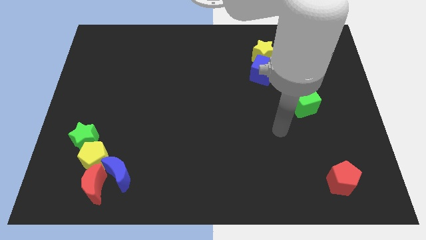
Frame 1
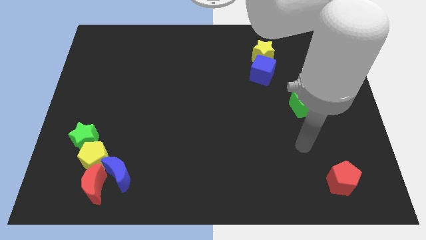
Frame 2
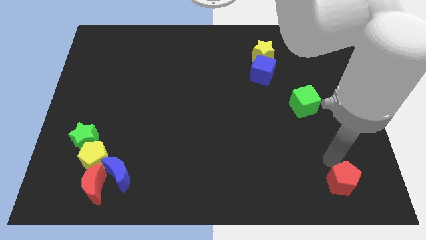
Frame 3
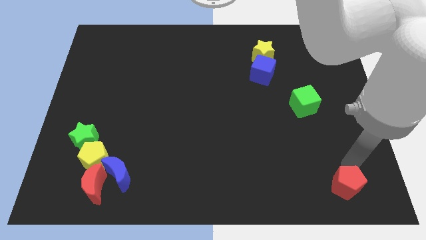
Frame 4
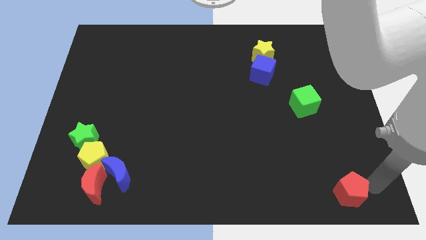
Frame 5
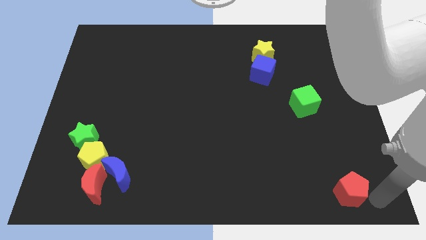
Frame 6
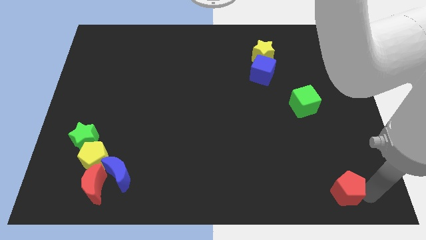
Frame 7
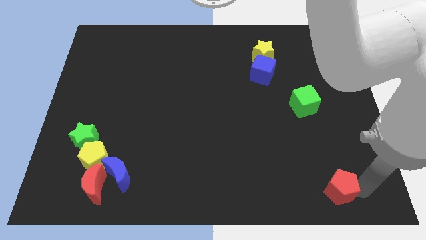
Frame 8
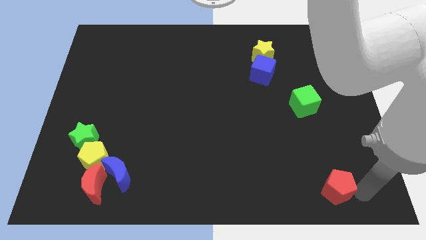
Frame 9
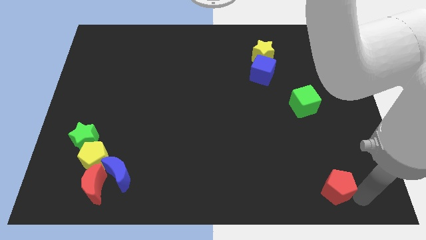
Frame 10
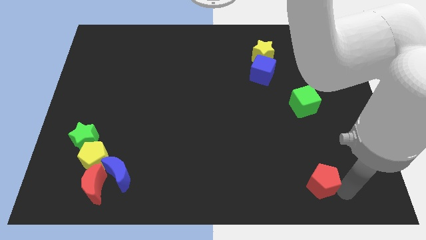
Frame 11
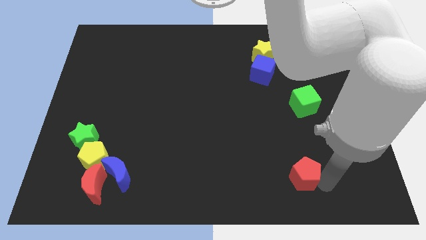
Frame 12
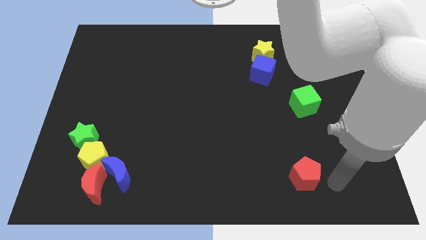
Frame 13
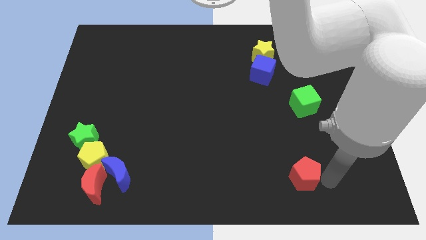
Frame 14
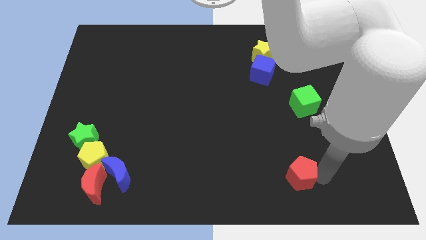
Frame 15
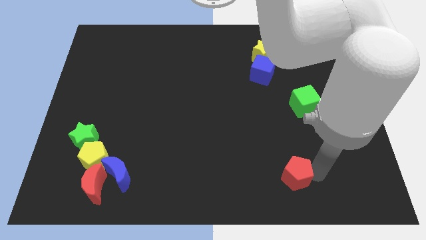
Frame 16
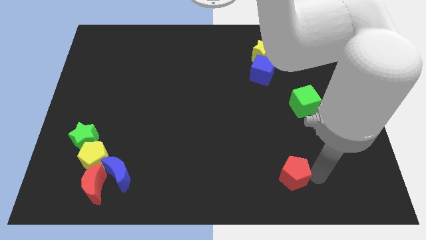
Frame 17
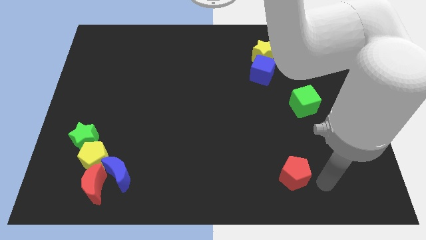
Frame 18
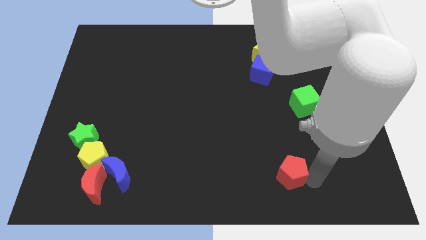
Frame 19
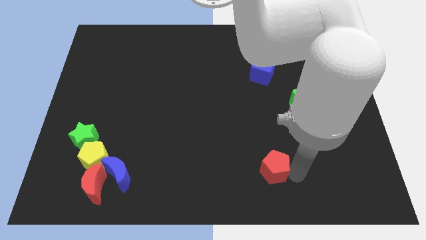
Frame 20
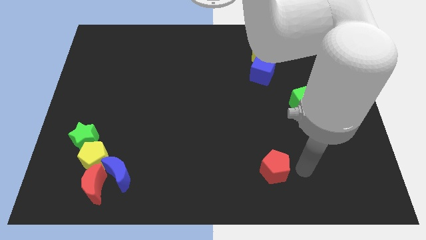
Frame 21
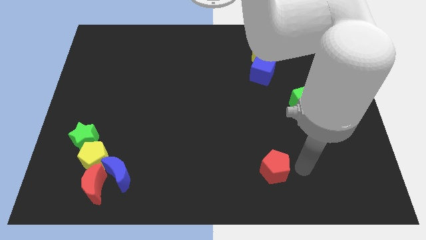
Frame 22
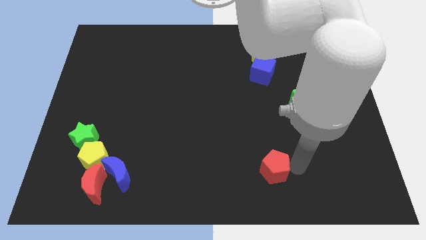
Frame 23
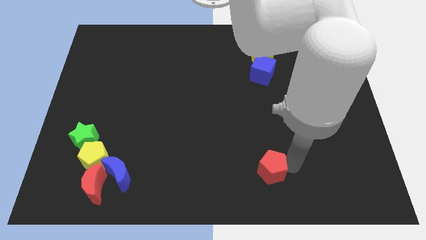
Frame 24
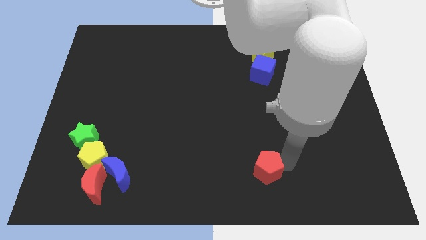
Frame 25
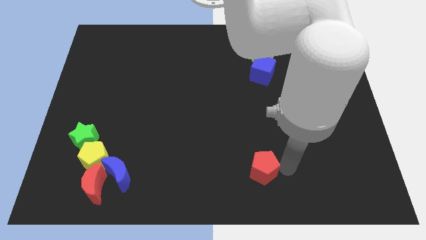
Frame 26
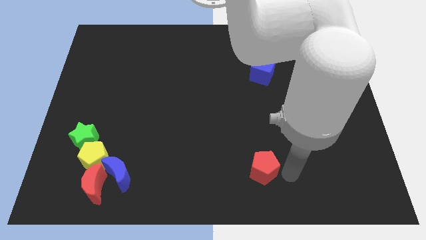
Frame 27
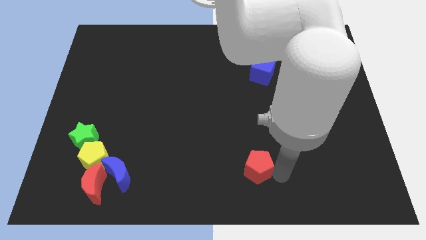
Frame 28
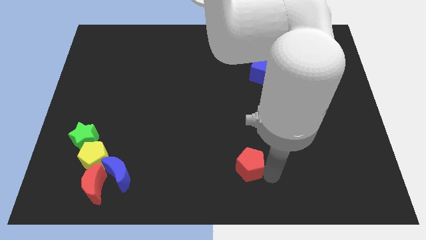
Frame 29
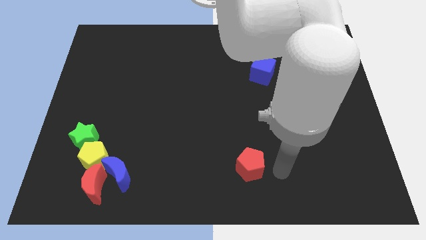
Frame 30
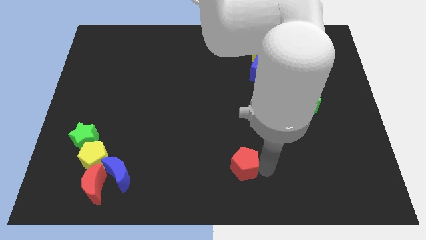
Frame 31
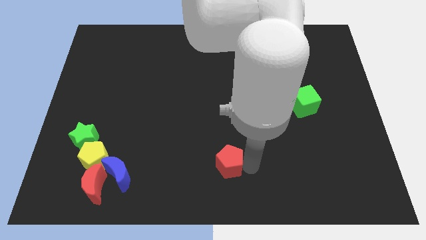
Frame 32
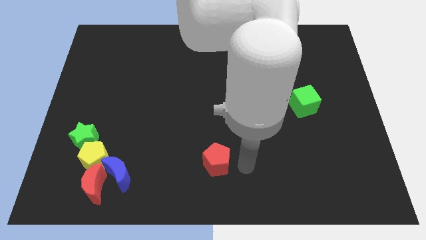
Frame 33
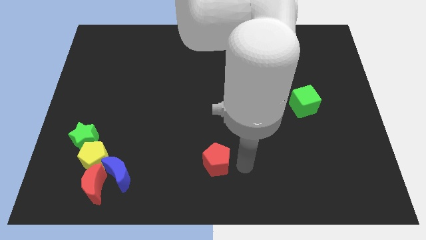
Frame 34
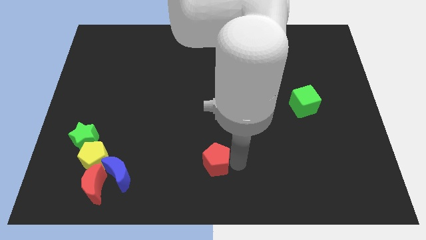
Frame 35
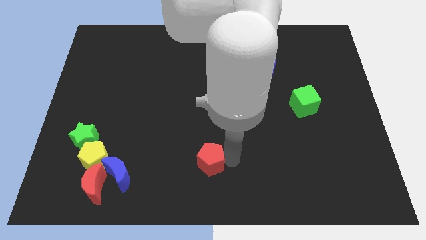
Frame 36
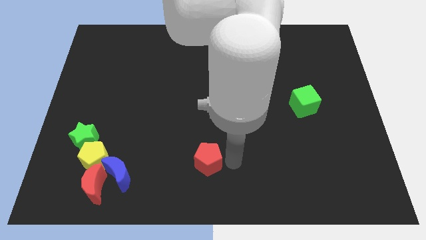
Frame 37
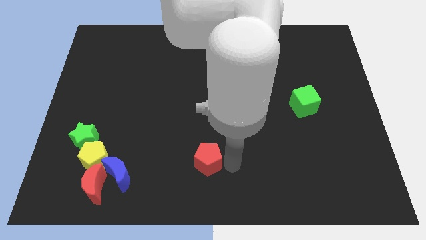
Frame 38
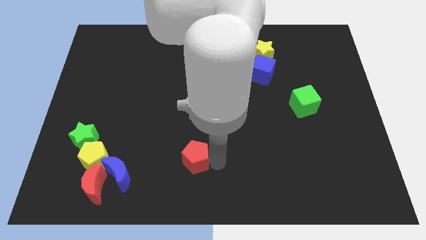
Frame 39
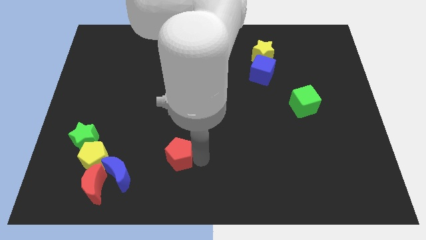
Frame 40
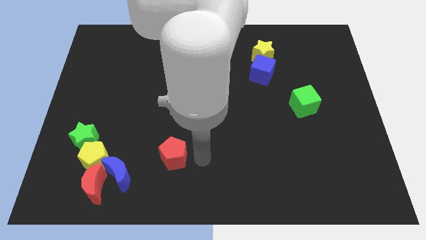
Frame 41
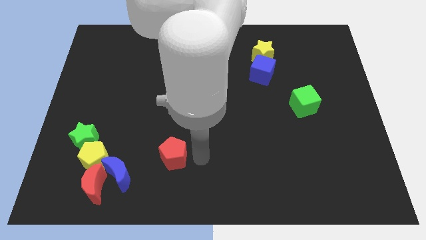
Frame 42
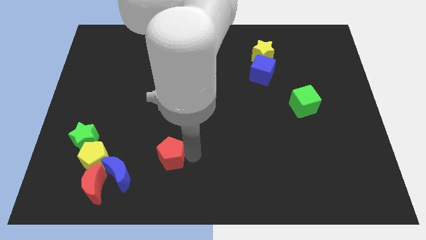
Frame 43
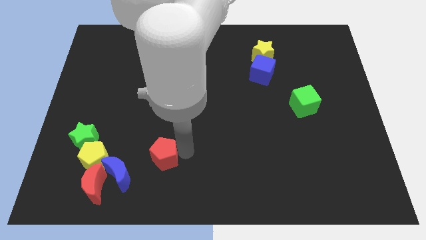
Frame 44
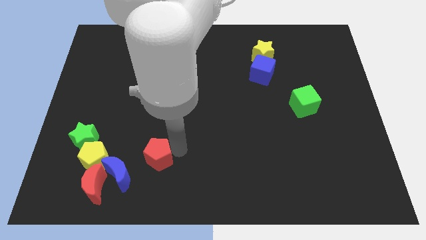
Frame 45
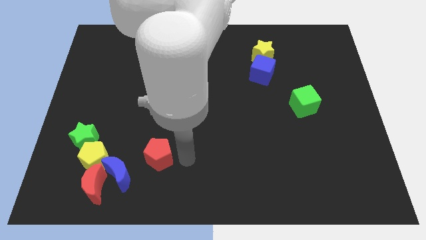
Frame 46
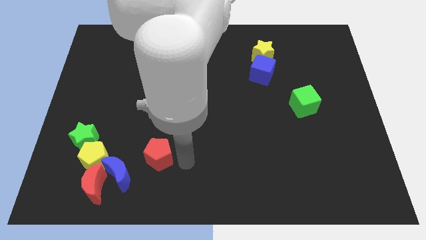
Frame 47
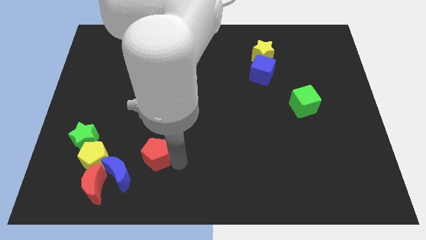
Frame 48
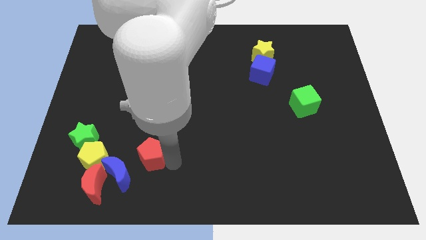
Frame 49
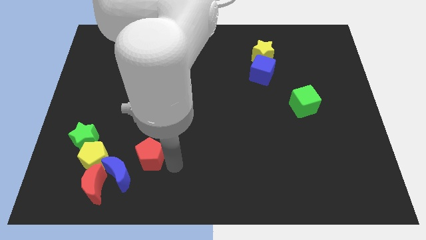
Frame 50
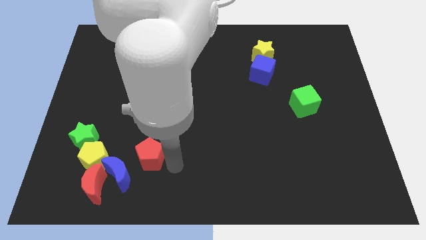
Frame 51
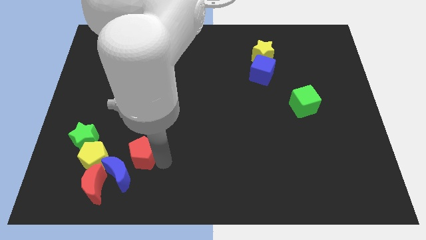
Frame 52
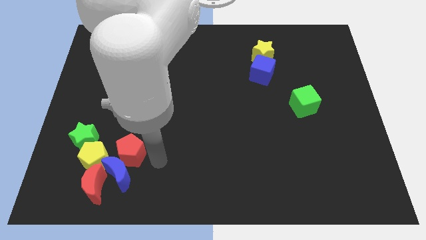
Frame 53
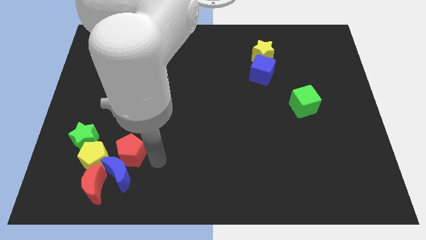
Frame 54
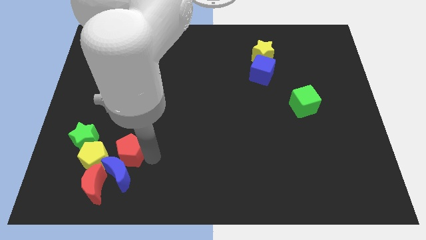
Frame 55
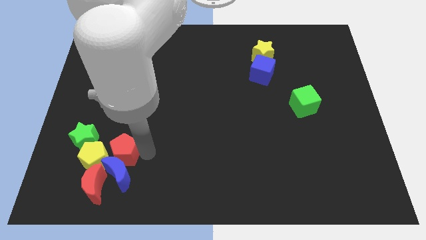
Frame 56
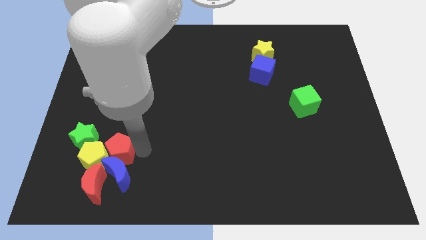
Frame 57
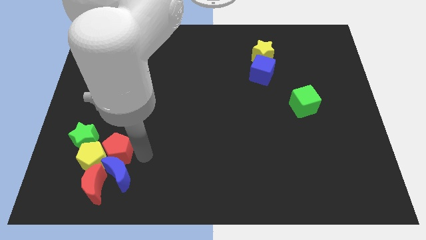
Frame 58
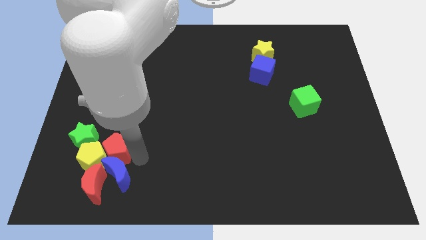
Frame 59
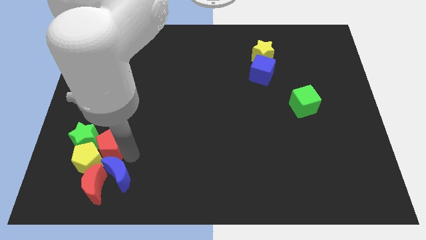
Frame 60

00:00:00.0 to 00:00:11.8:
push the red pentagon next to the green star

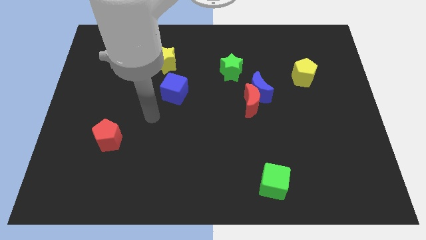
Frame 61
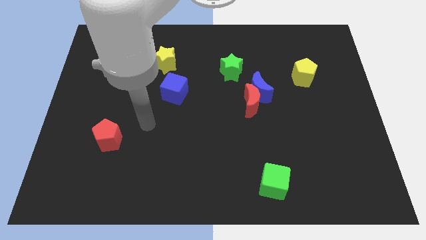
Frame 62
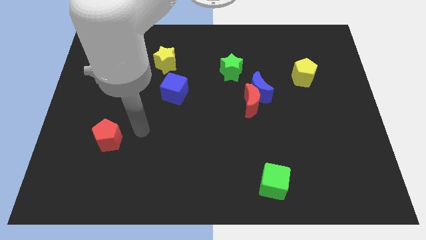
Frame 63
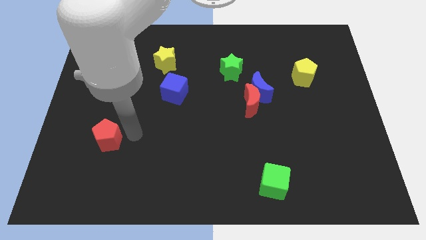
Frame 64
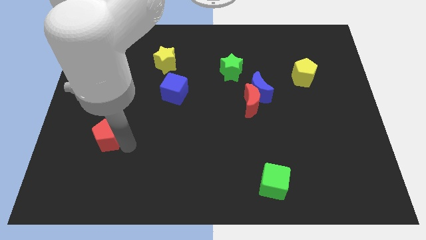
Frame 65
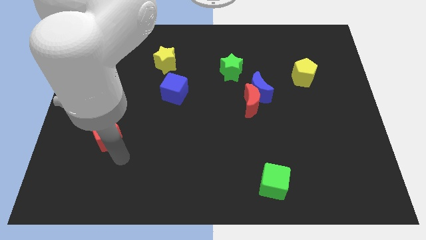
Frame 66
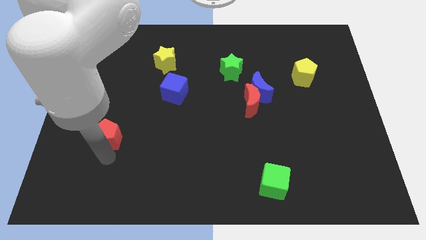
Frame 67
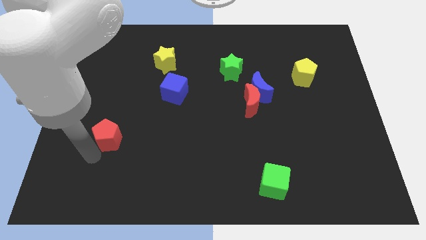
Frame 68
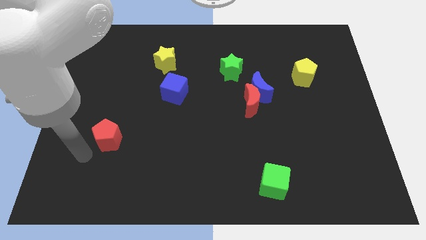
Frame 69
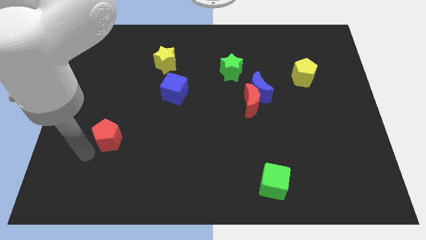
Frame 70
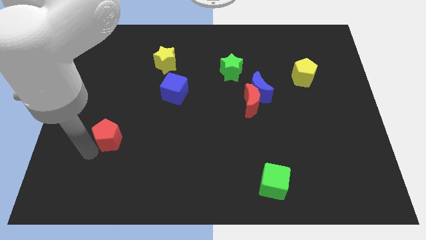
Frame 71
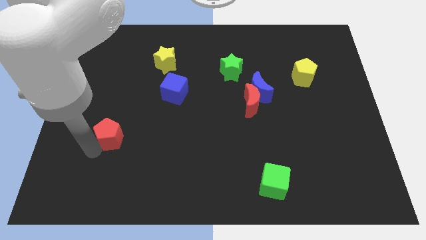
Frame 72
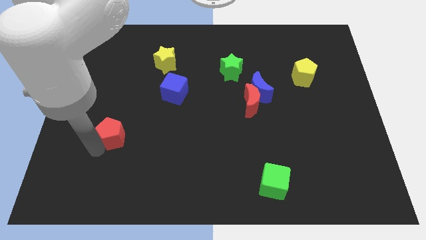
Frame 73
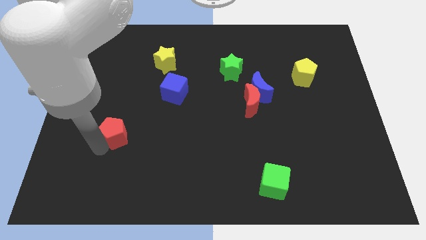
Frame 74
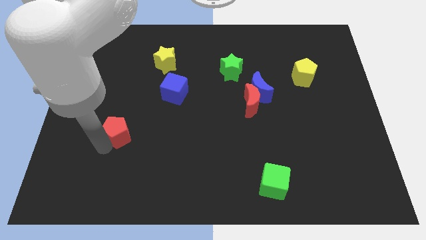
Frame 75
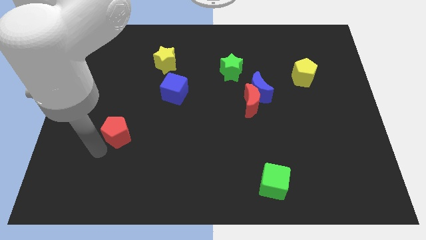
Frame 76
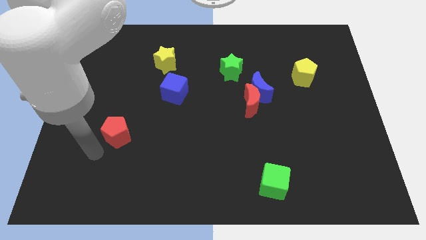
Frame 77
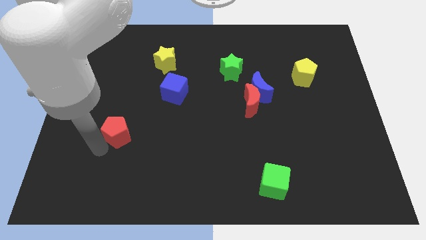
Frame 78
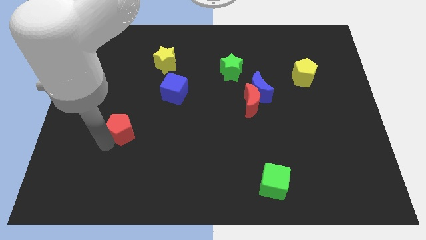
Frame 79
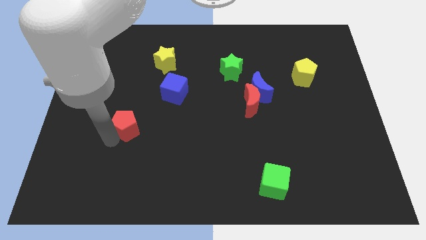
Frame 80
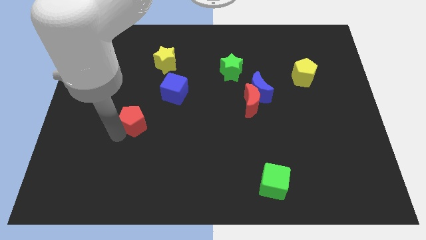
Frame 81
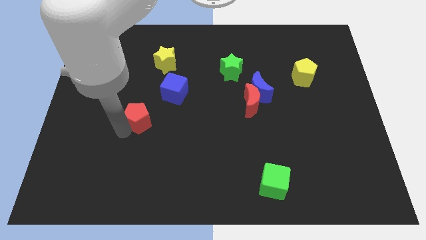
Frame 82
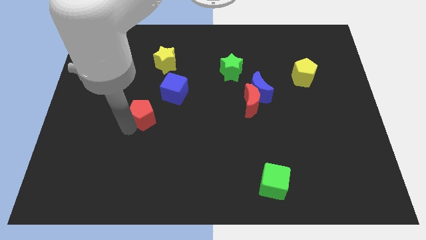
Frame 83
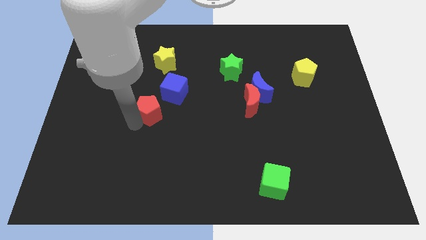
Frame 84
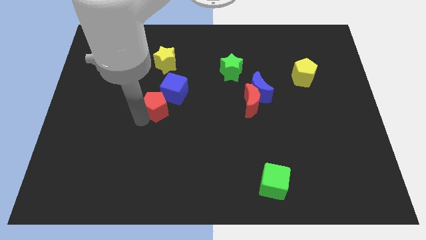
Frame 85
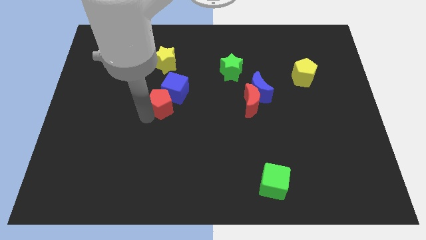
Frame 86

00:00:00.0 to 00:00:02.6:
push the red pentagon next to the blue cube
